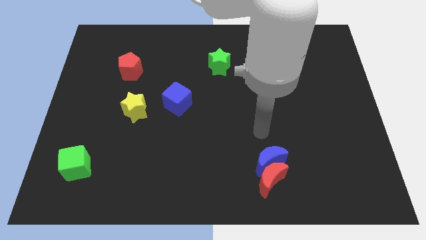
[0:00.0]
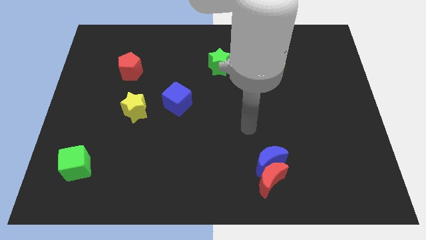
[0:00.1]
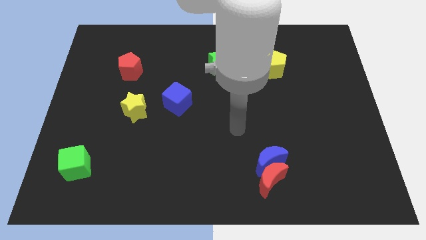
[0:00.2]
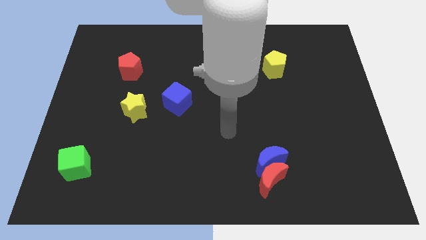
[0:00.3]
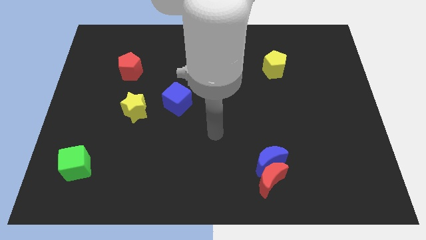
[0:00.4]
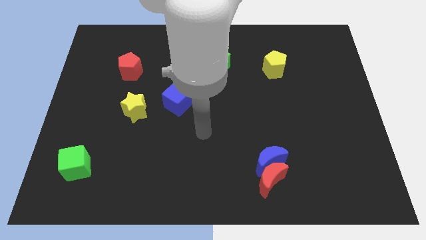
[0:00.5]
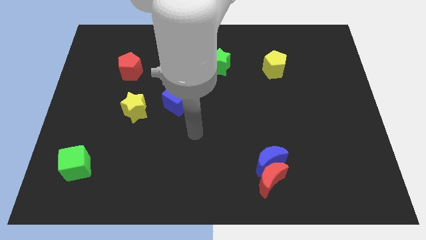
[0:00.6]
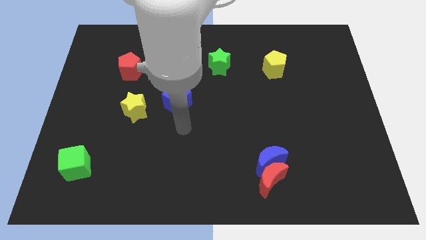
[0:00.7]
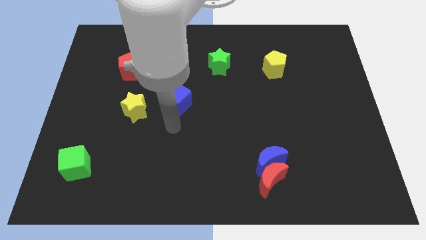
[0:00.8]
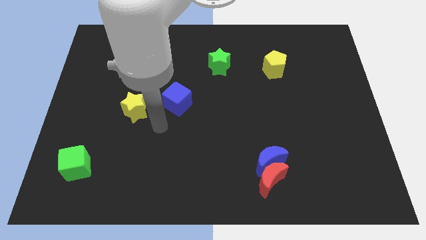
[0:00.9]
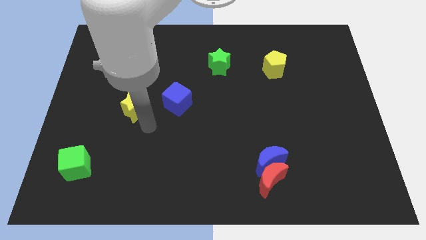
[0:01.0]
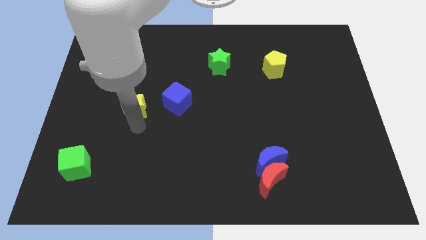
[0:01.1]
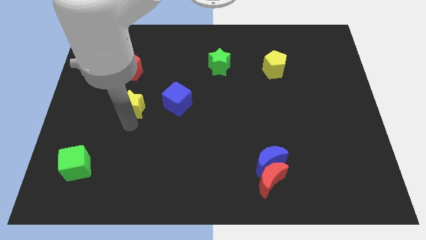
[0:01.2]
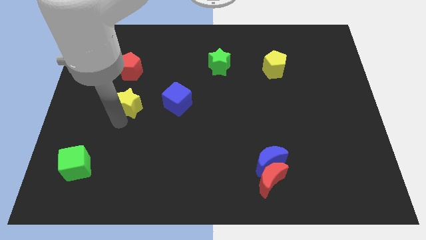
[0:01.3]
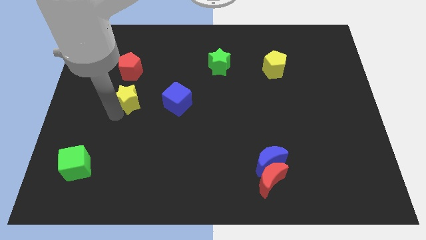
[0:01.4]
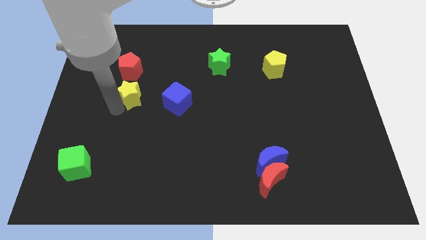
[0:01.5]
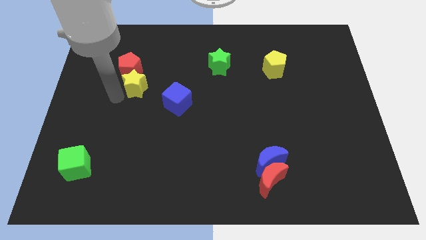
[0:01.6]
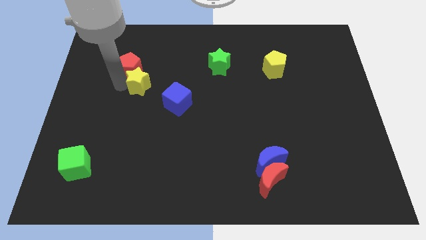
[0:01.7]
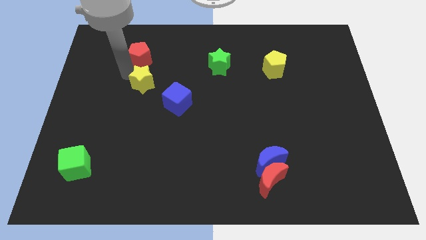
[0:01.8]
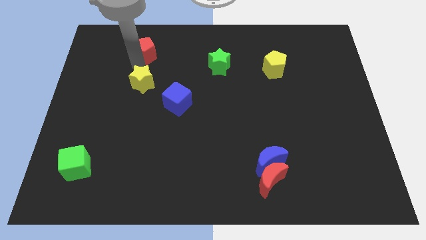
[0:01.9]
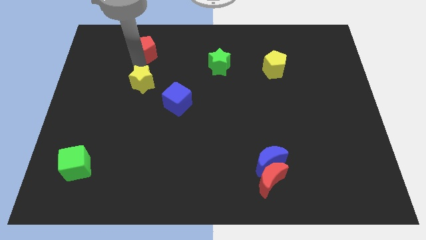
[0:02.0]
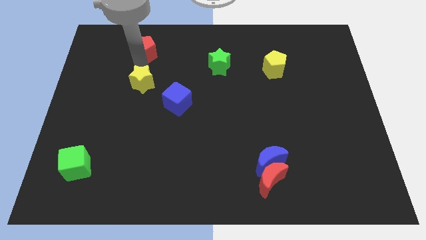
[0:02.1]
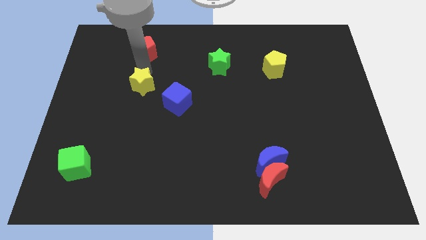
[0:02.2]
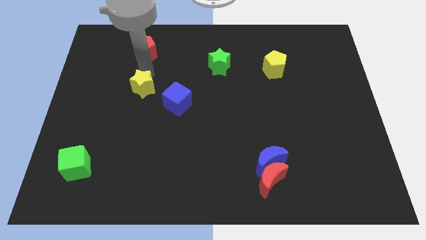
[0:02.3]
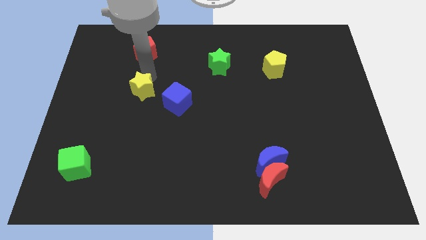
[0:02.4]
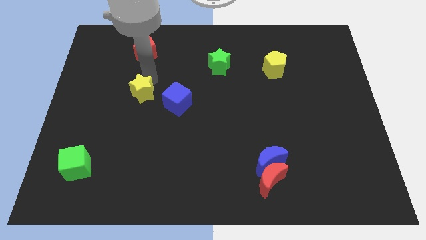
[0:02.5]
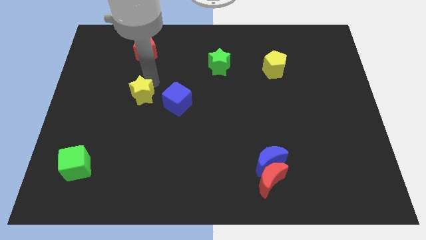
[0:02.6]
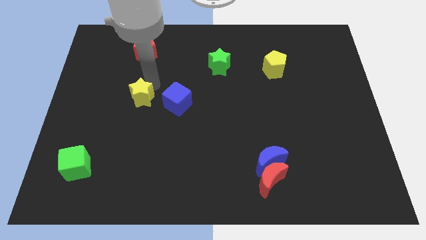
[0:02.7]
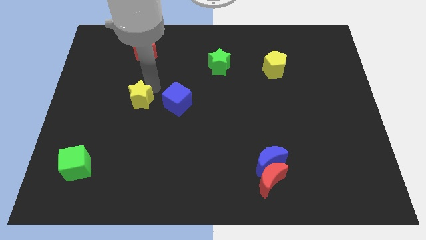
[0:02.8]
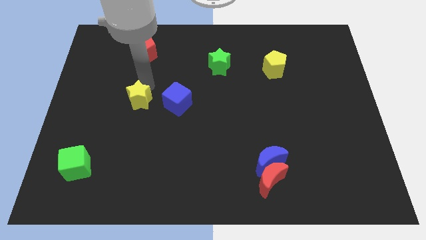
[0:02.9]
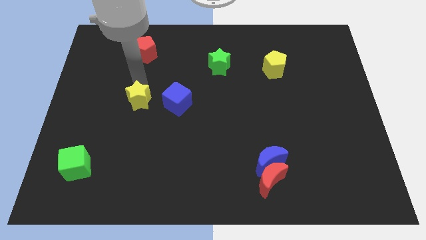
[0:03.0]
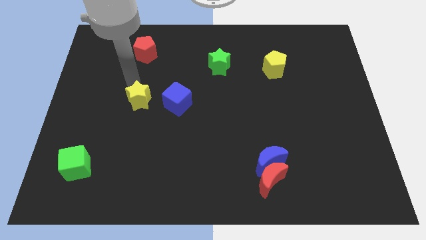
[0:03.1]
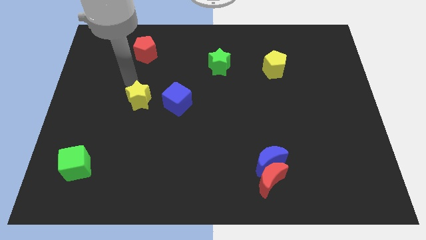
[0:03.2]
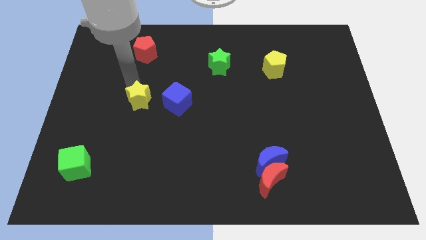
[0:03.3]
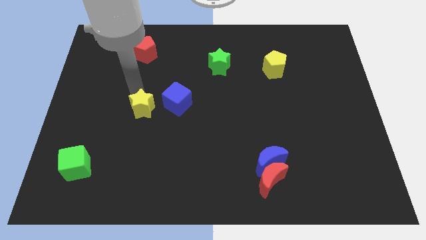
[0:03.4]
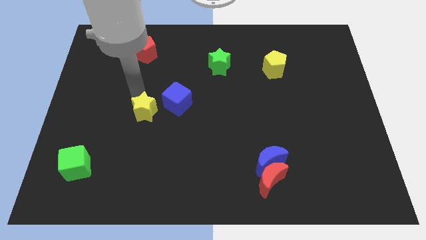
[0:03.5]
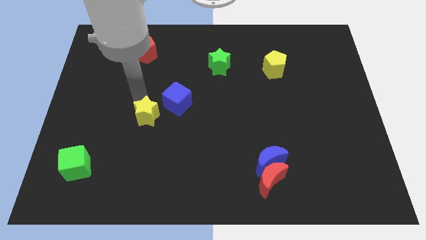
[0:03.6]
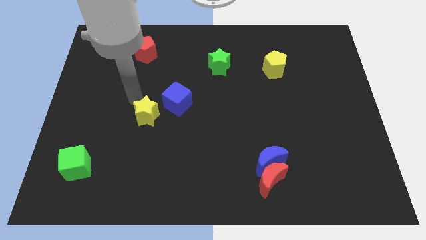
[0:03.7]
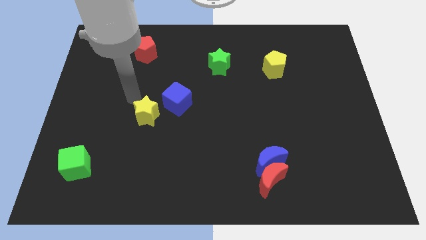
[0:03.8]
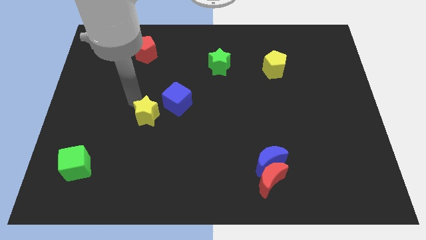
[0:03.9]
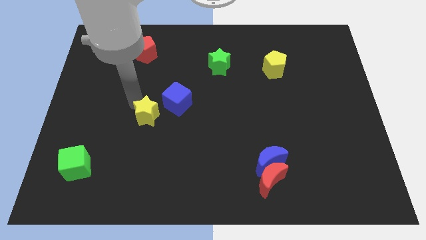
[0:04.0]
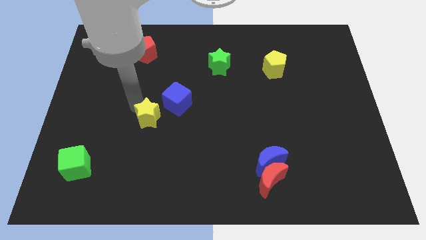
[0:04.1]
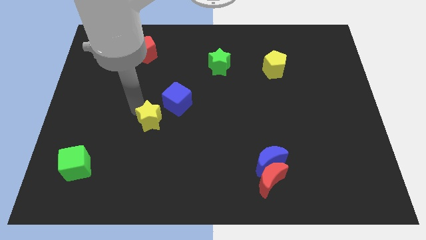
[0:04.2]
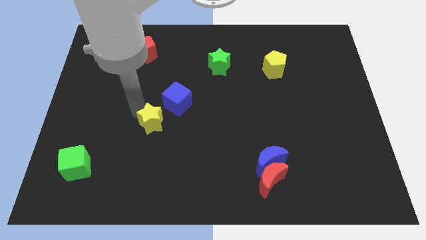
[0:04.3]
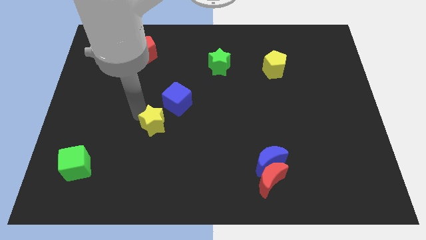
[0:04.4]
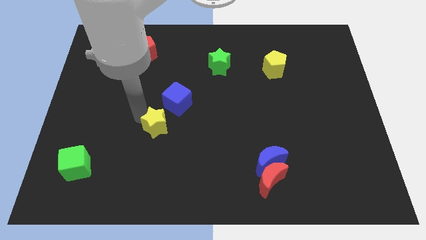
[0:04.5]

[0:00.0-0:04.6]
slightly slide the yellow star down and to the right

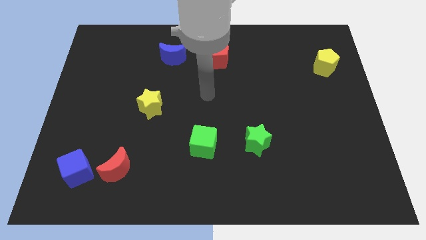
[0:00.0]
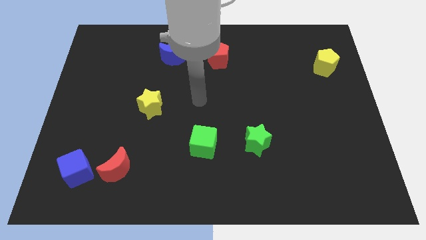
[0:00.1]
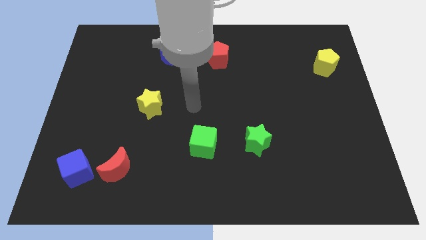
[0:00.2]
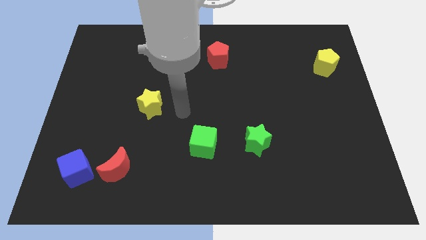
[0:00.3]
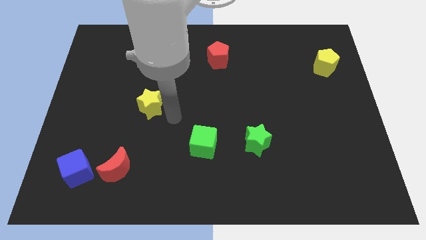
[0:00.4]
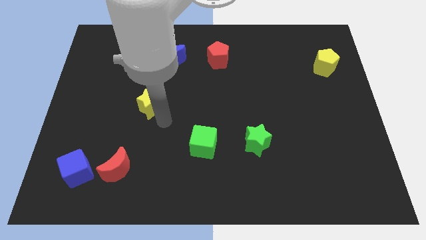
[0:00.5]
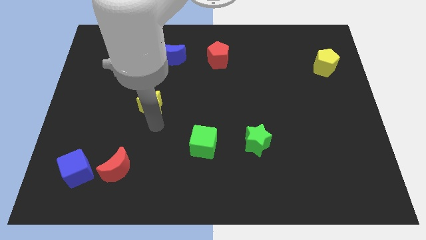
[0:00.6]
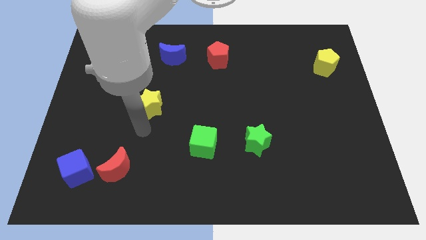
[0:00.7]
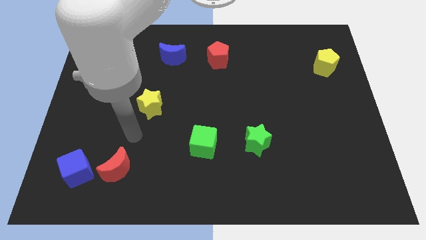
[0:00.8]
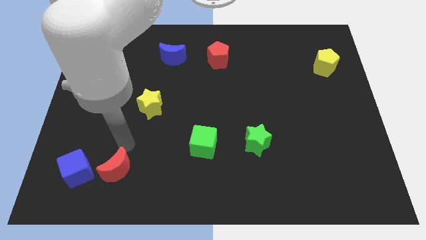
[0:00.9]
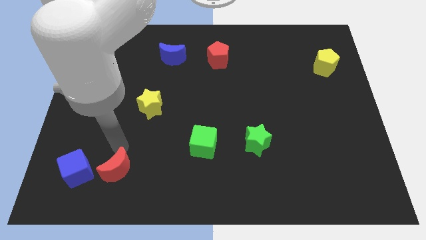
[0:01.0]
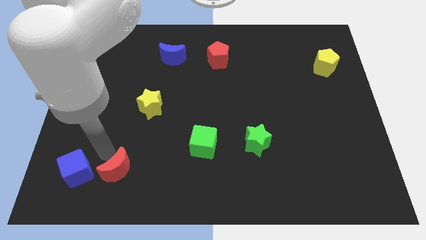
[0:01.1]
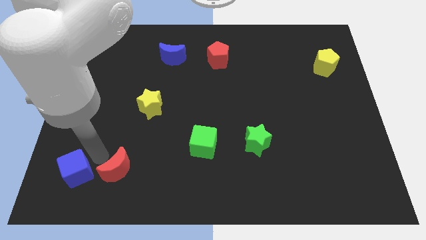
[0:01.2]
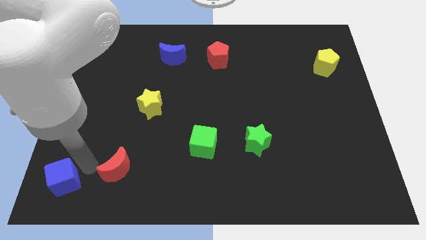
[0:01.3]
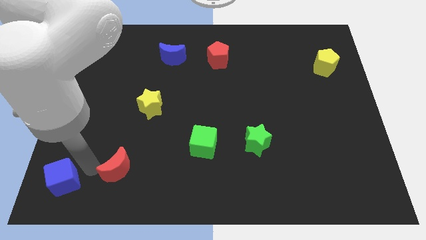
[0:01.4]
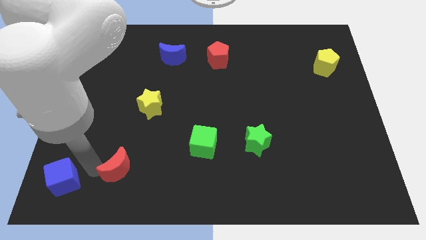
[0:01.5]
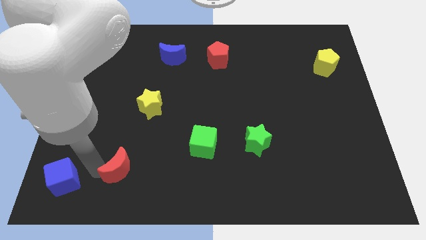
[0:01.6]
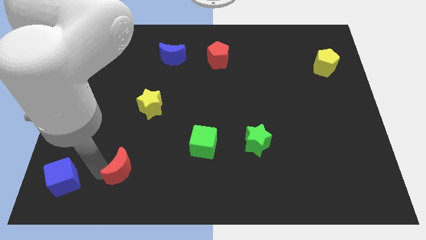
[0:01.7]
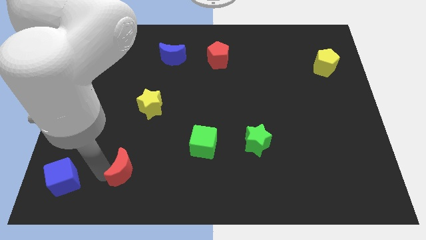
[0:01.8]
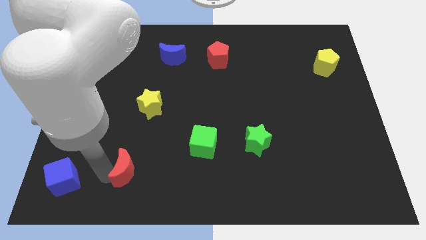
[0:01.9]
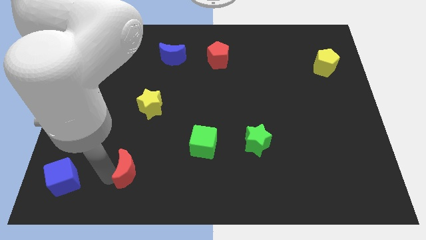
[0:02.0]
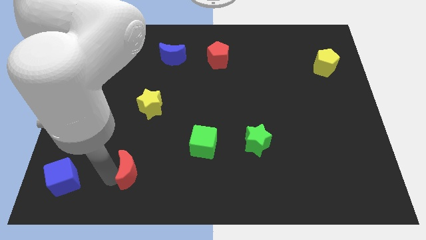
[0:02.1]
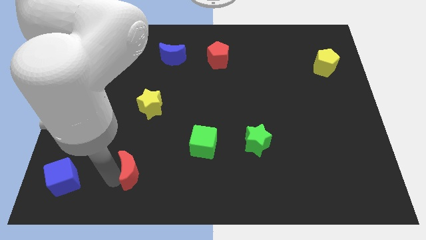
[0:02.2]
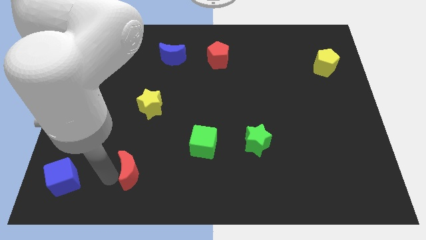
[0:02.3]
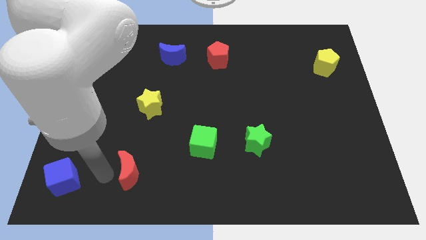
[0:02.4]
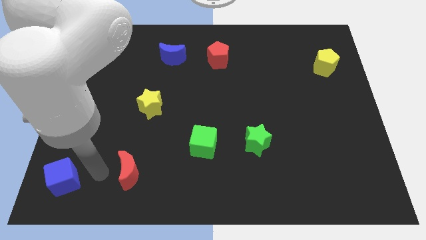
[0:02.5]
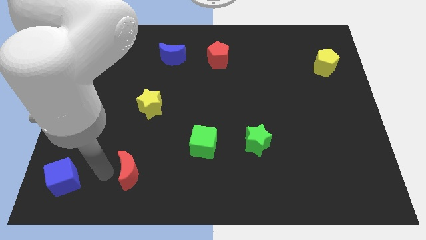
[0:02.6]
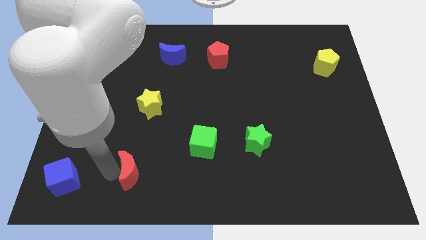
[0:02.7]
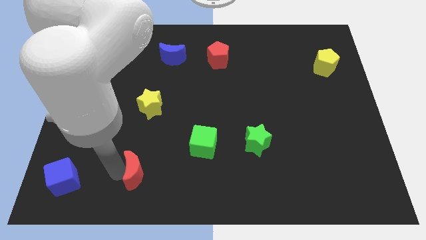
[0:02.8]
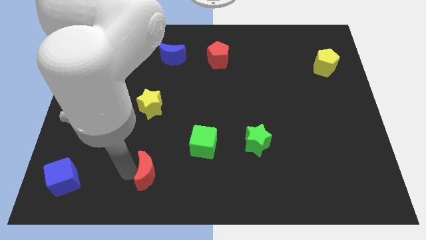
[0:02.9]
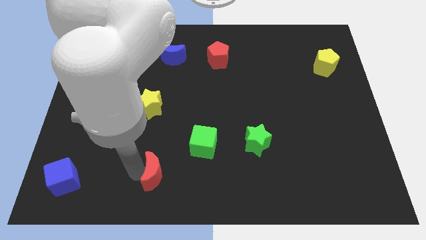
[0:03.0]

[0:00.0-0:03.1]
slightly push the red moon right

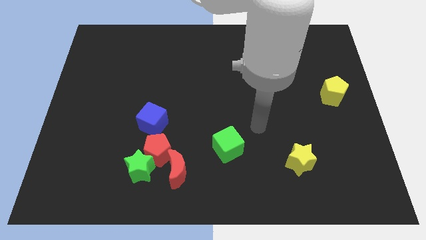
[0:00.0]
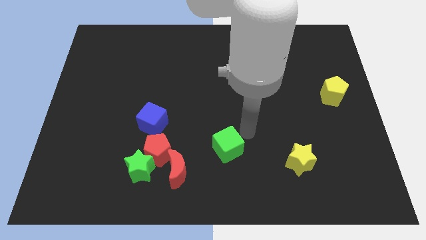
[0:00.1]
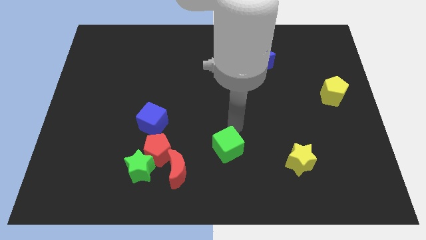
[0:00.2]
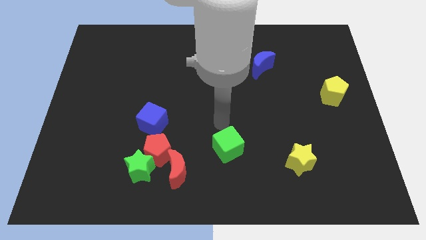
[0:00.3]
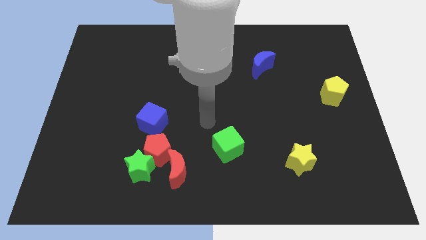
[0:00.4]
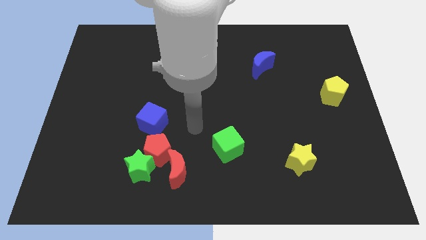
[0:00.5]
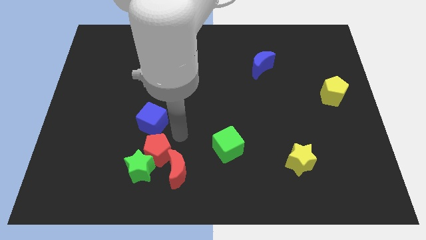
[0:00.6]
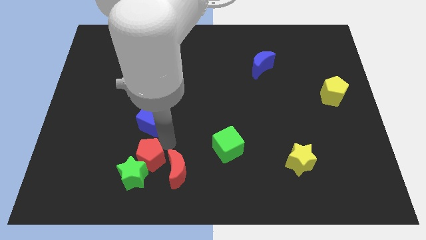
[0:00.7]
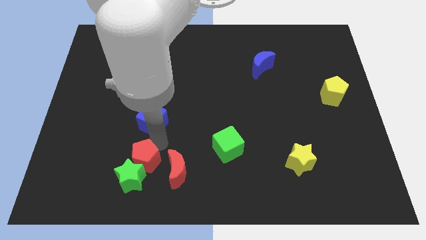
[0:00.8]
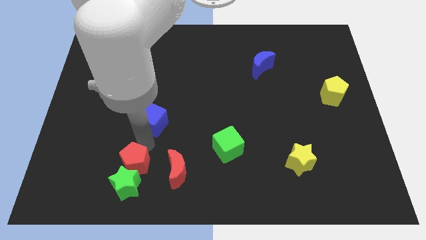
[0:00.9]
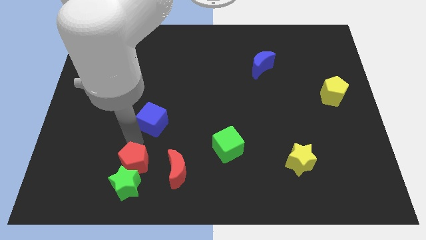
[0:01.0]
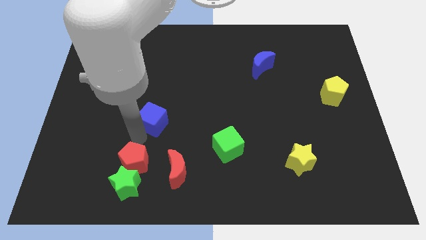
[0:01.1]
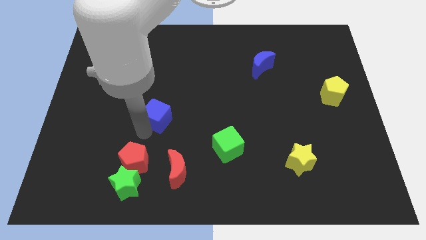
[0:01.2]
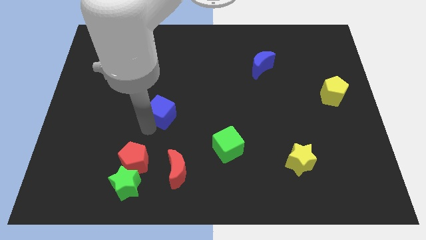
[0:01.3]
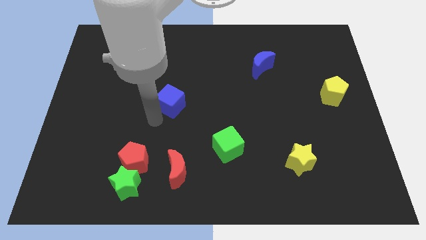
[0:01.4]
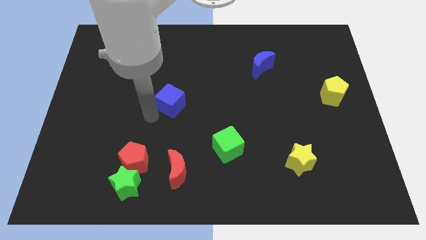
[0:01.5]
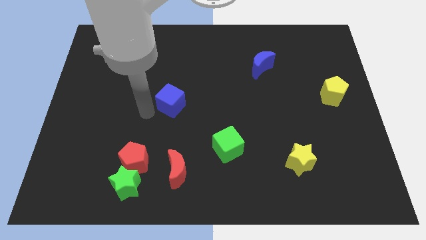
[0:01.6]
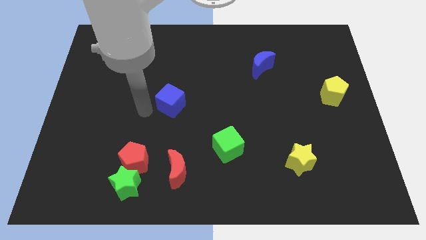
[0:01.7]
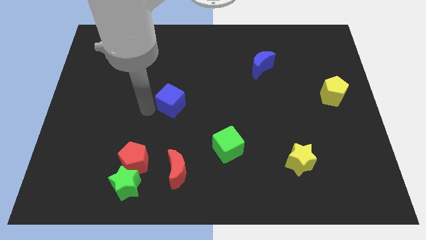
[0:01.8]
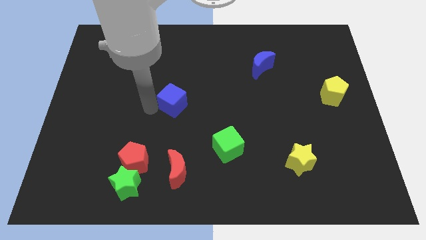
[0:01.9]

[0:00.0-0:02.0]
slightly slide the blue cube upwards and then to the right
